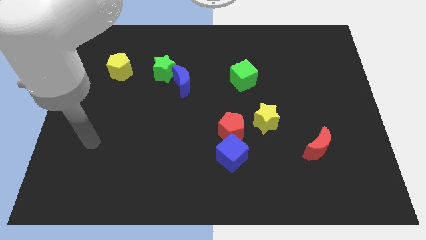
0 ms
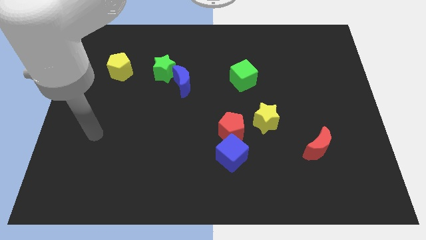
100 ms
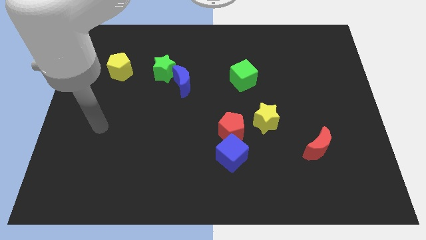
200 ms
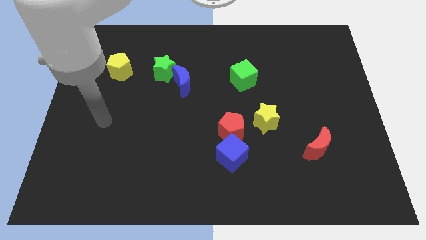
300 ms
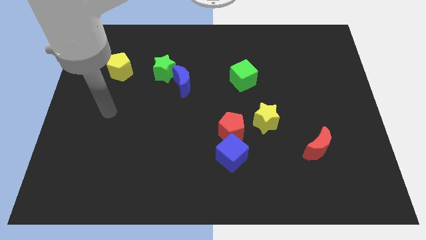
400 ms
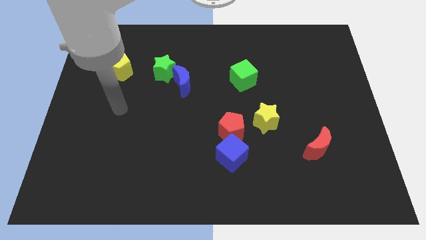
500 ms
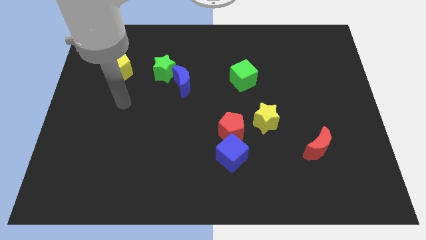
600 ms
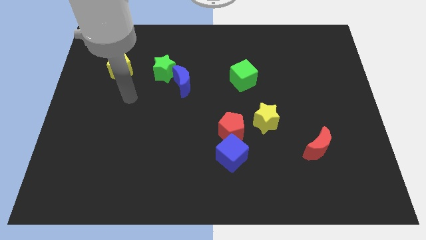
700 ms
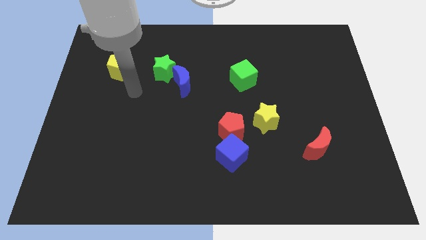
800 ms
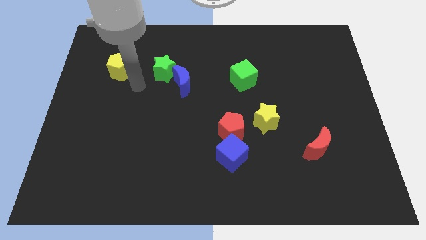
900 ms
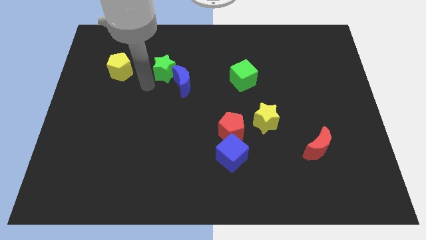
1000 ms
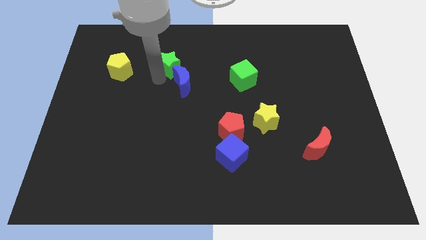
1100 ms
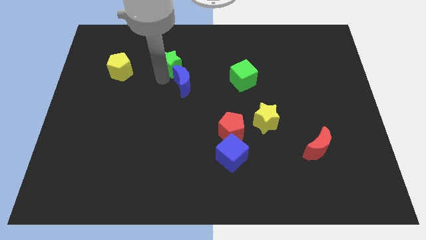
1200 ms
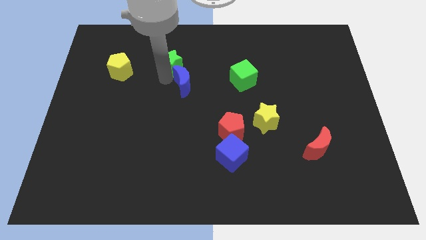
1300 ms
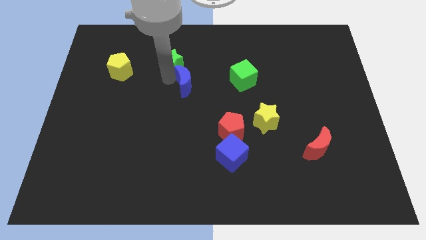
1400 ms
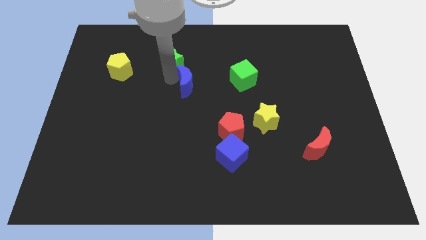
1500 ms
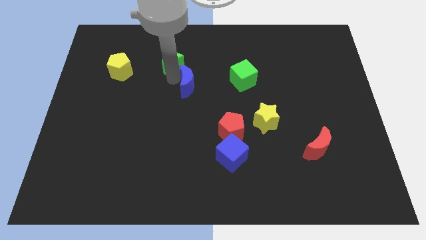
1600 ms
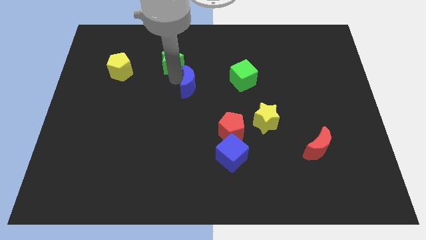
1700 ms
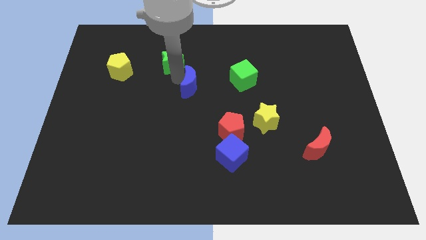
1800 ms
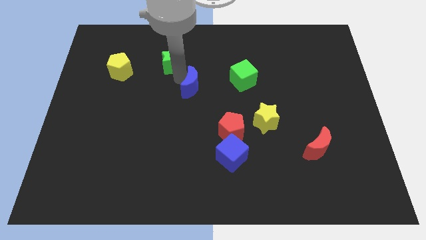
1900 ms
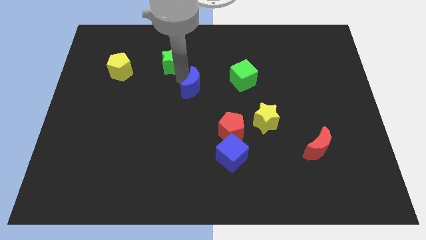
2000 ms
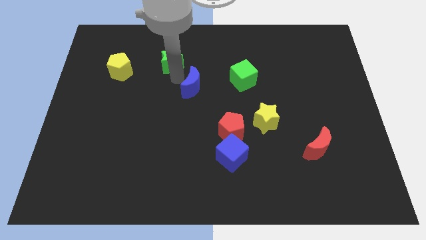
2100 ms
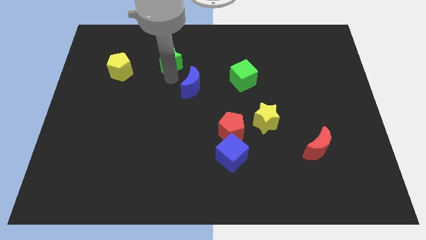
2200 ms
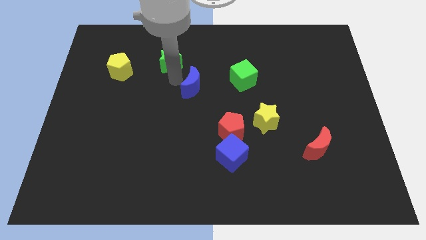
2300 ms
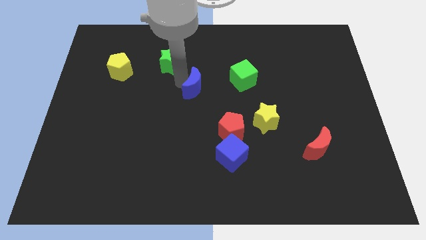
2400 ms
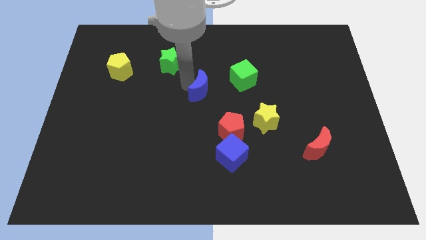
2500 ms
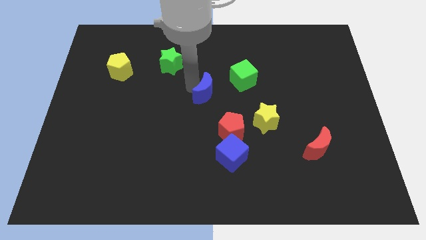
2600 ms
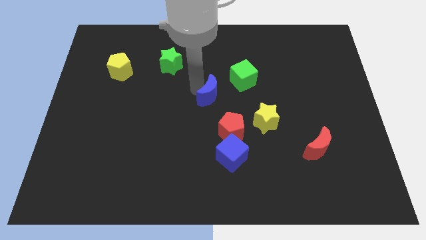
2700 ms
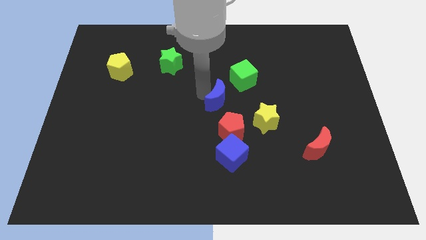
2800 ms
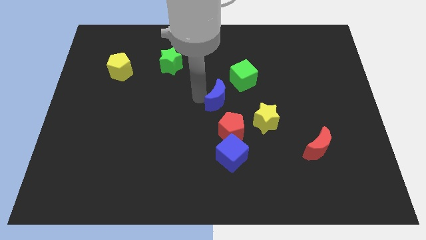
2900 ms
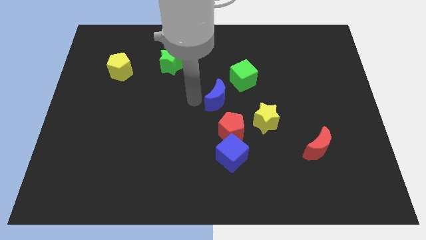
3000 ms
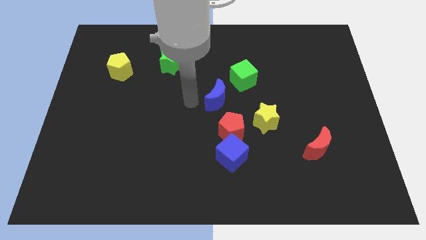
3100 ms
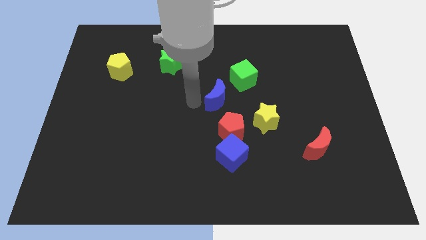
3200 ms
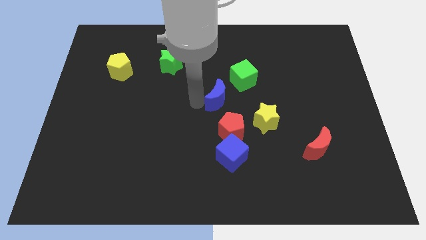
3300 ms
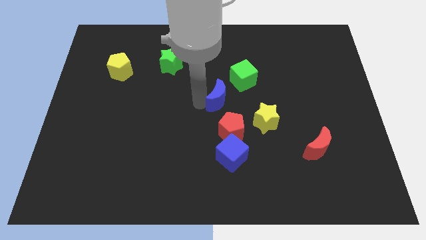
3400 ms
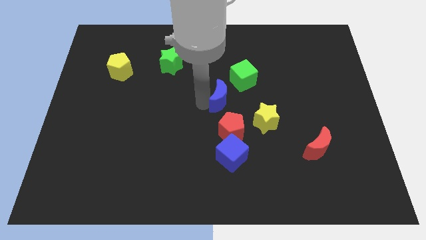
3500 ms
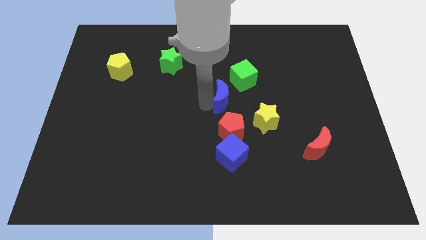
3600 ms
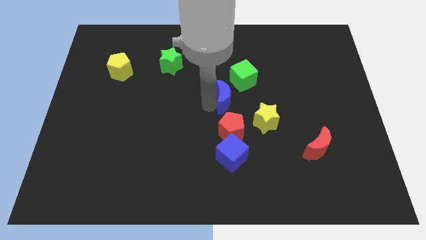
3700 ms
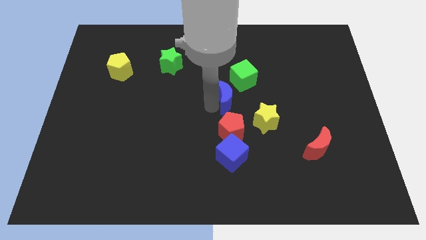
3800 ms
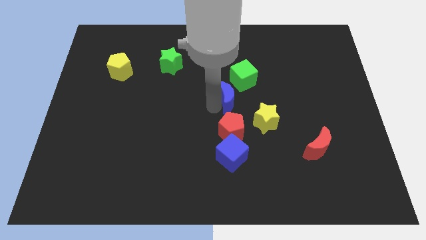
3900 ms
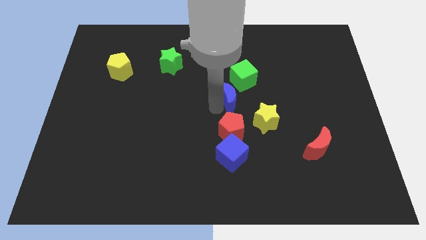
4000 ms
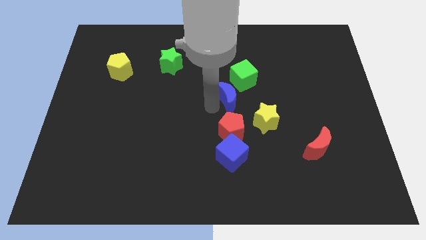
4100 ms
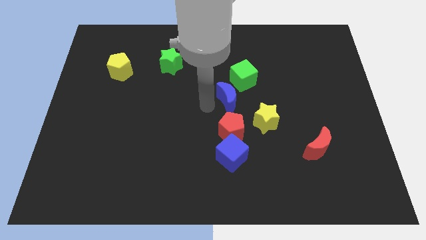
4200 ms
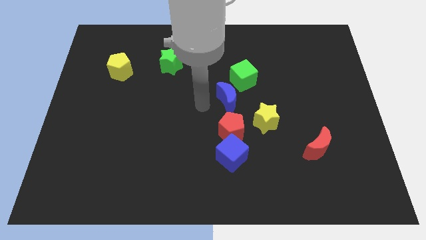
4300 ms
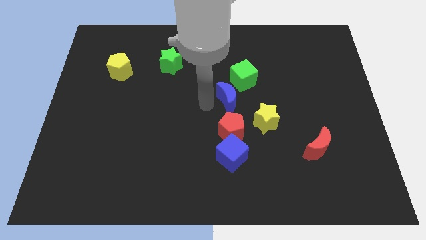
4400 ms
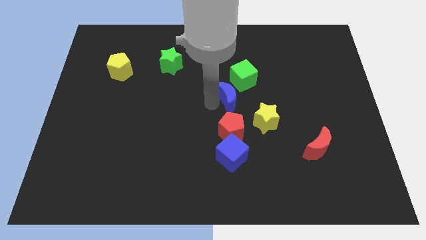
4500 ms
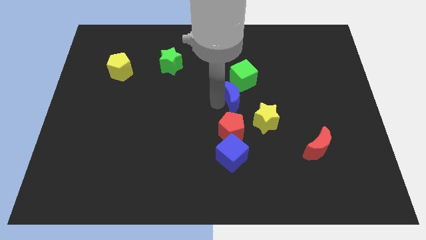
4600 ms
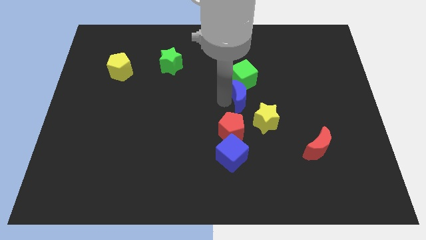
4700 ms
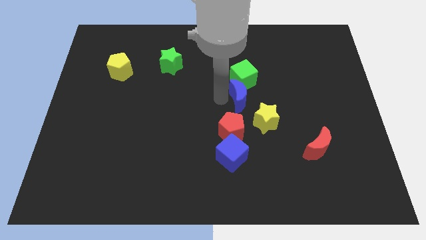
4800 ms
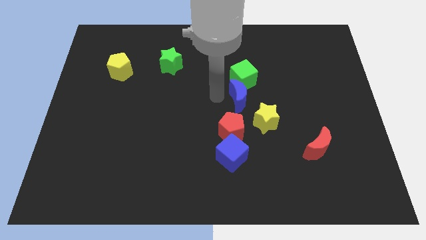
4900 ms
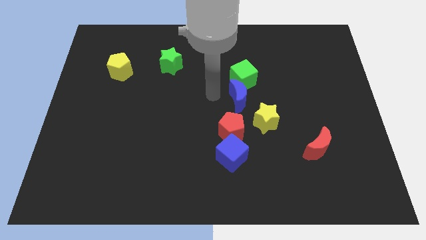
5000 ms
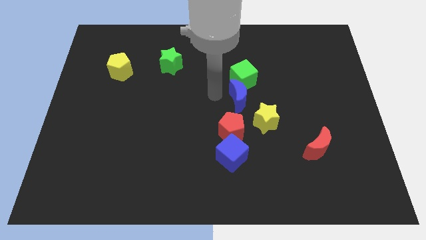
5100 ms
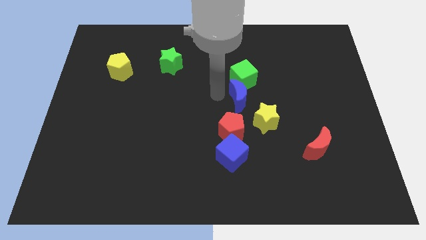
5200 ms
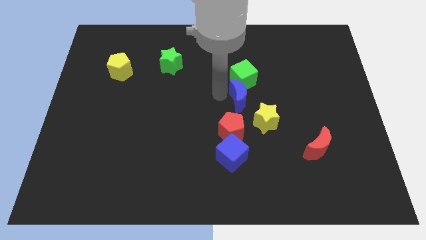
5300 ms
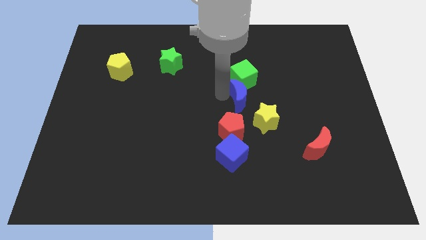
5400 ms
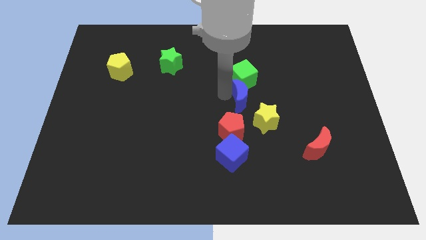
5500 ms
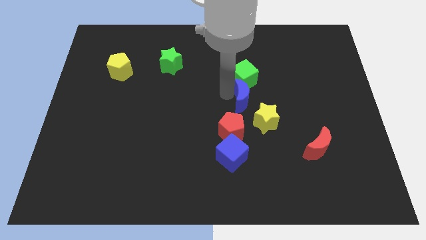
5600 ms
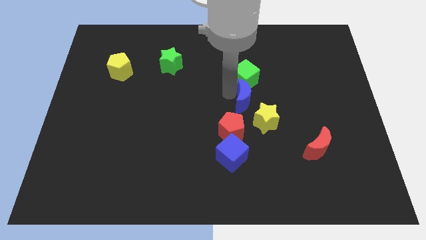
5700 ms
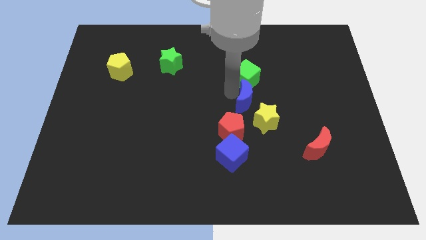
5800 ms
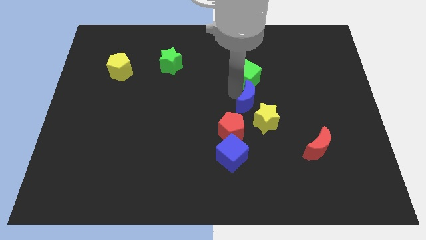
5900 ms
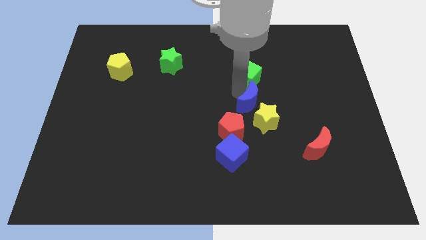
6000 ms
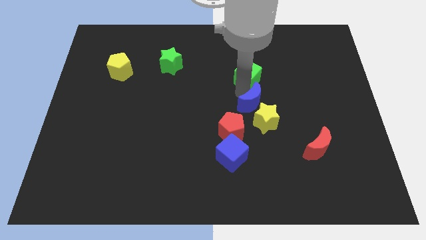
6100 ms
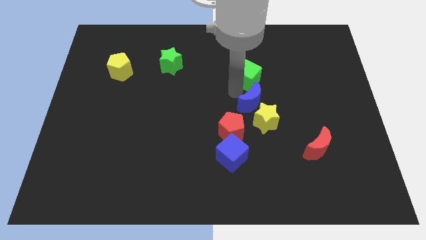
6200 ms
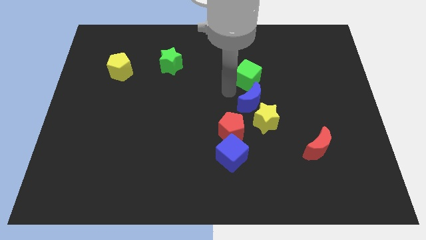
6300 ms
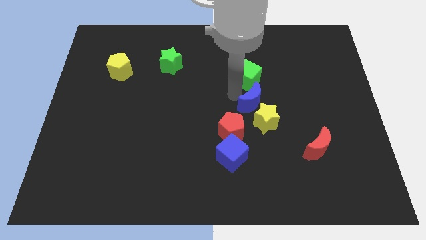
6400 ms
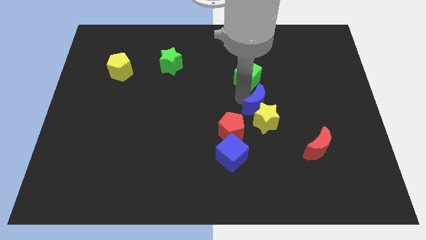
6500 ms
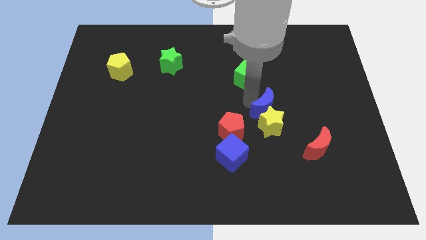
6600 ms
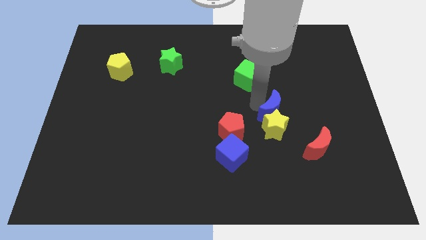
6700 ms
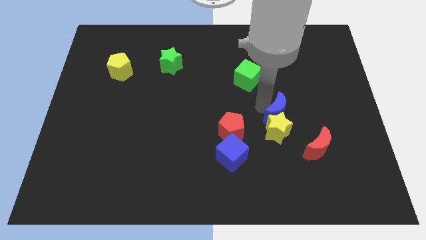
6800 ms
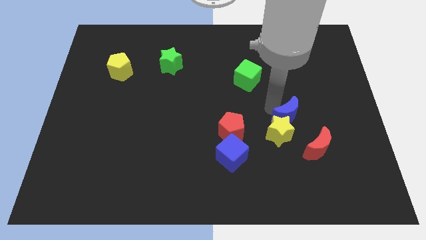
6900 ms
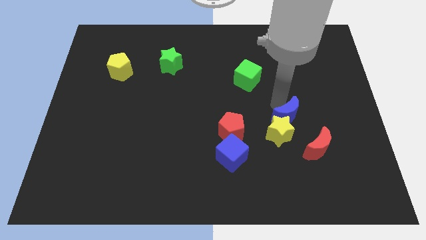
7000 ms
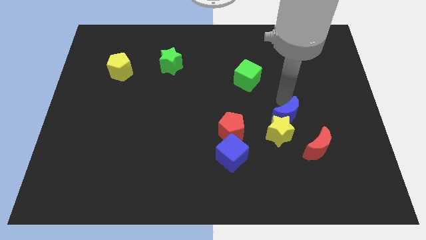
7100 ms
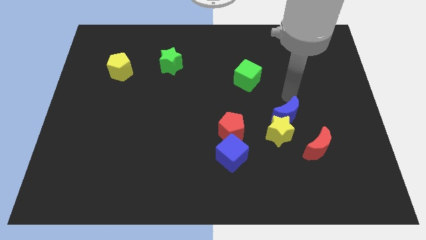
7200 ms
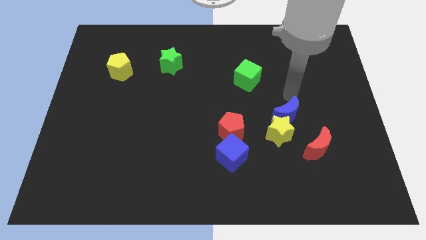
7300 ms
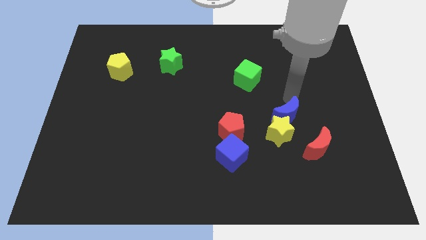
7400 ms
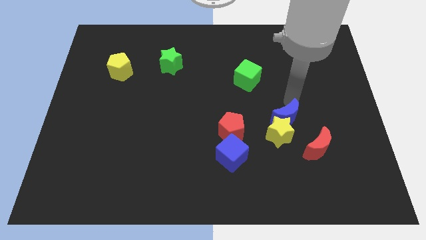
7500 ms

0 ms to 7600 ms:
move the blue moon downwards and then to the right

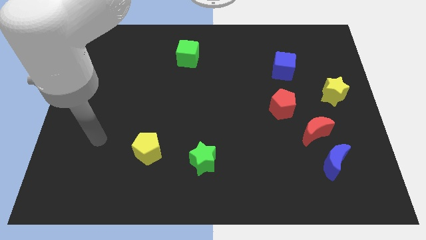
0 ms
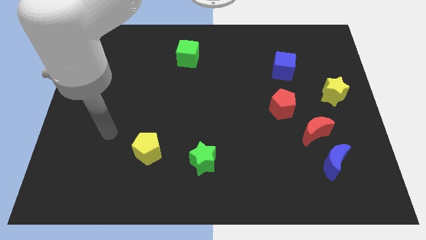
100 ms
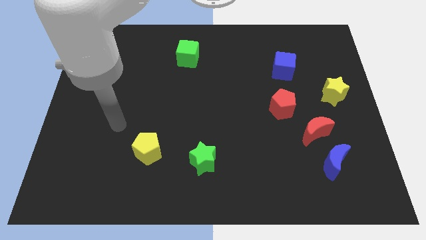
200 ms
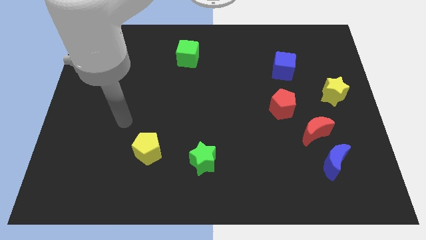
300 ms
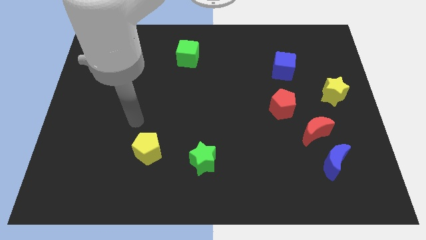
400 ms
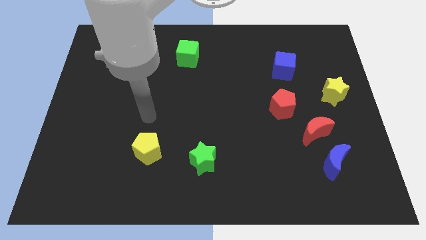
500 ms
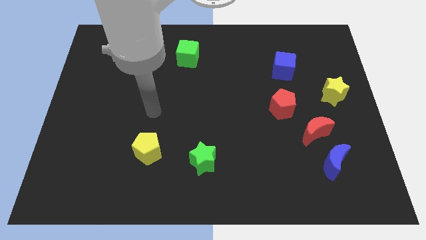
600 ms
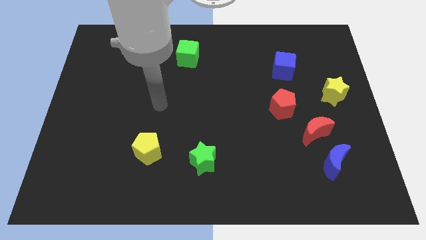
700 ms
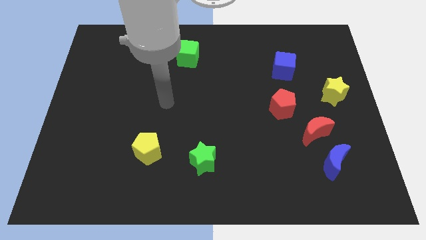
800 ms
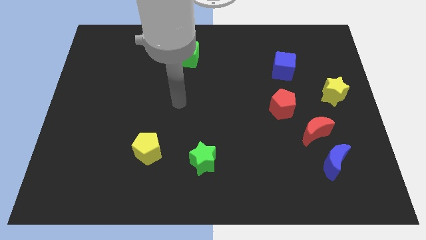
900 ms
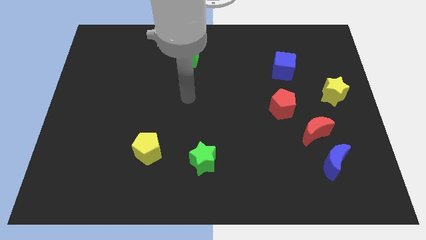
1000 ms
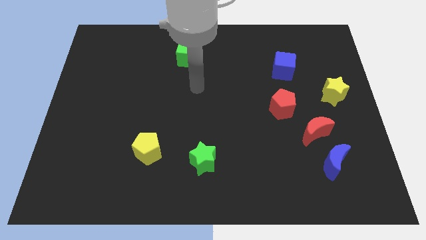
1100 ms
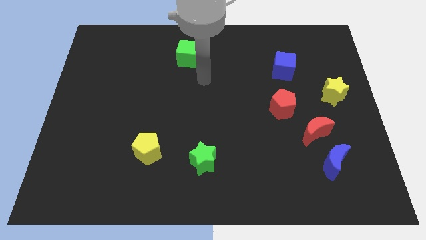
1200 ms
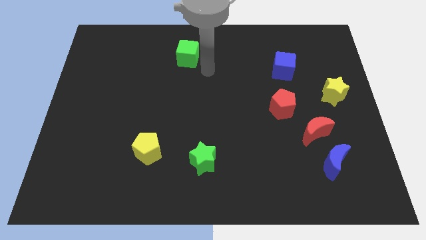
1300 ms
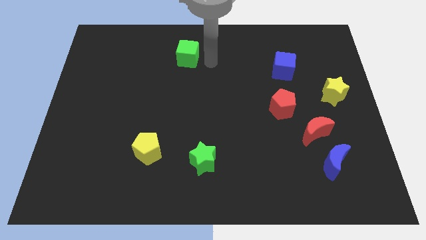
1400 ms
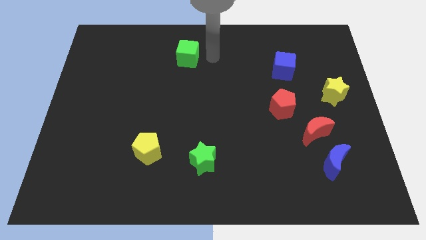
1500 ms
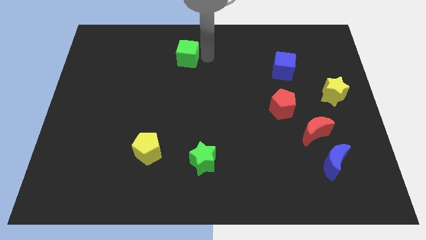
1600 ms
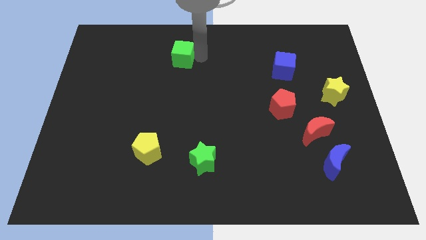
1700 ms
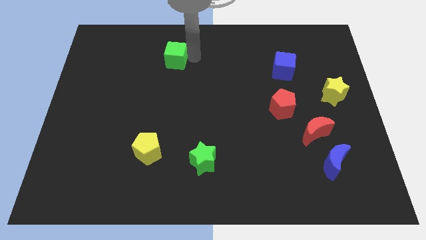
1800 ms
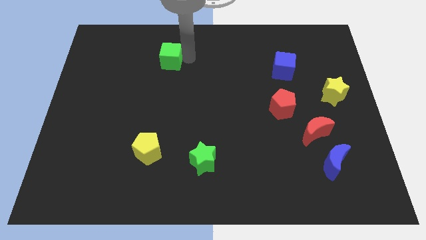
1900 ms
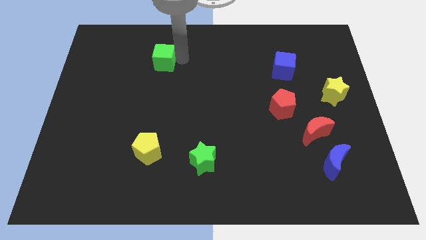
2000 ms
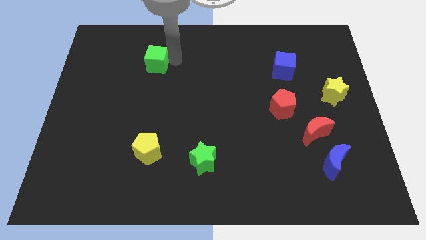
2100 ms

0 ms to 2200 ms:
slide the green cube left a little bit
